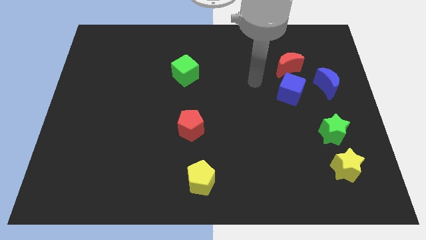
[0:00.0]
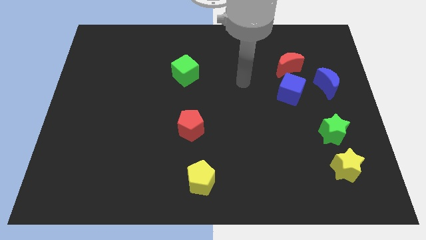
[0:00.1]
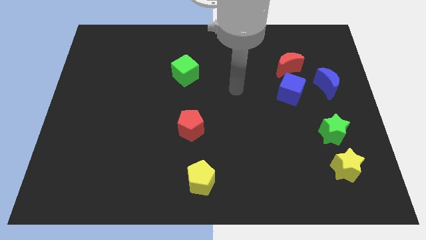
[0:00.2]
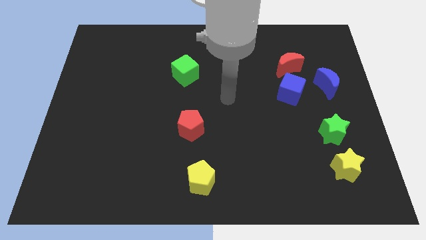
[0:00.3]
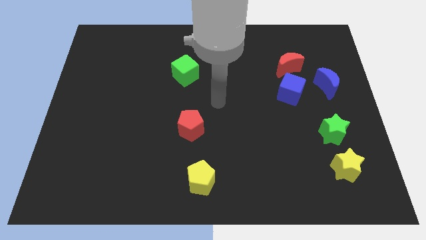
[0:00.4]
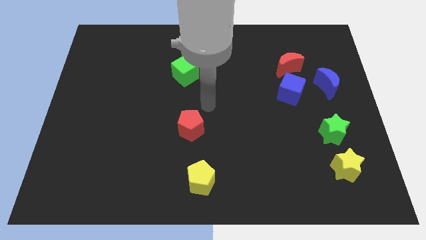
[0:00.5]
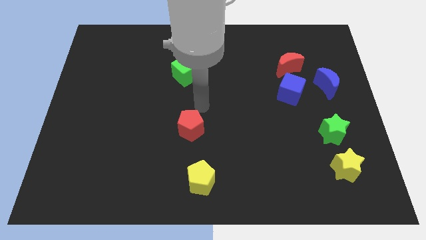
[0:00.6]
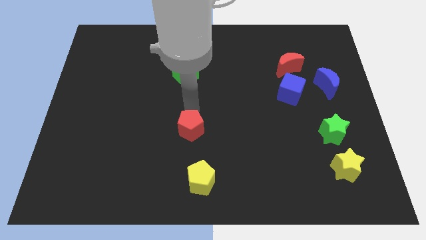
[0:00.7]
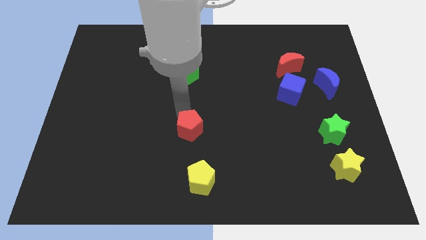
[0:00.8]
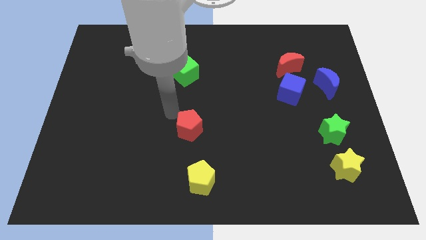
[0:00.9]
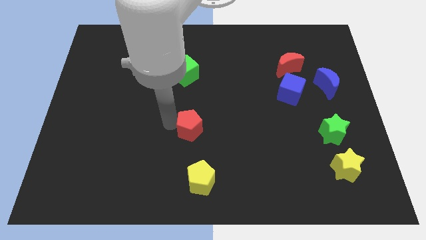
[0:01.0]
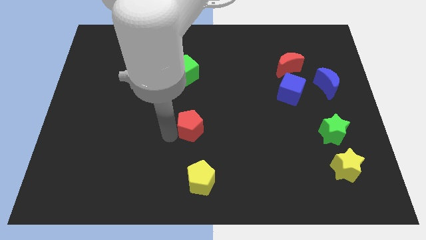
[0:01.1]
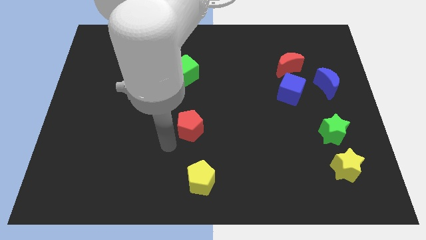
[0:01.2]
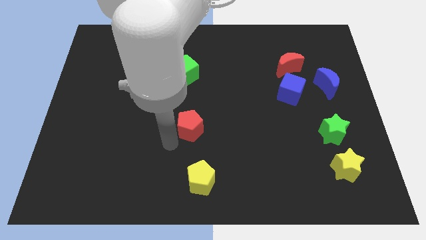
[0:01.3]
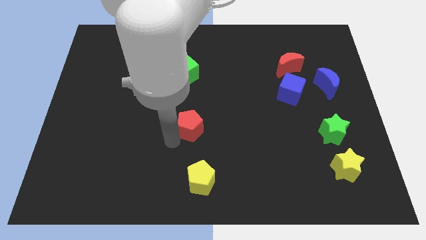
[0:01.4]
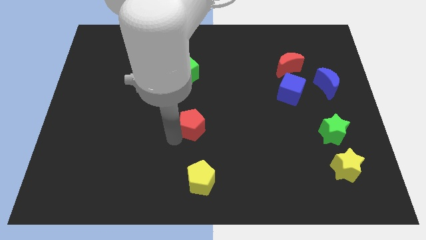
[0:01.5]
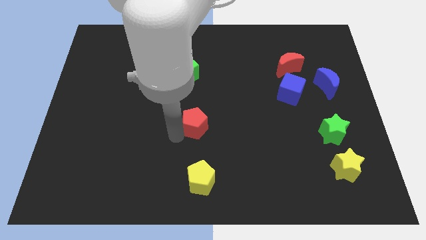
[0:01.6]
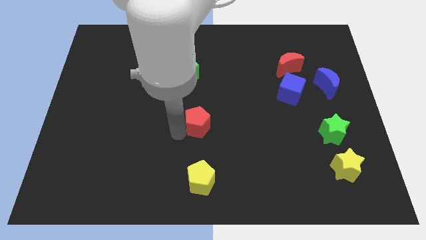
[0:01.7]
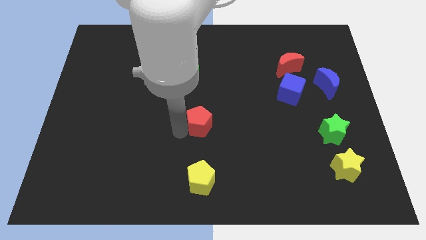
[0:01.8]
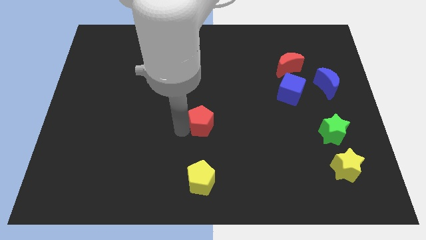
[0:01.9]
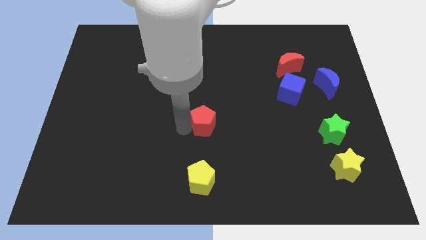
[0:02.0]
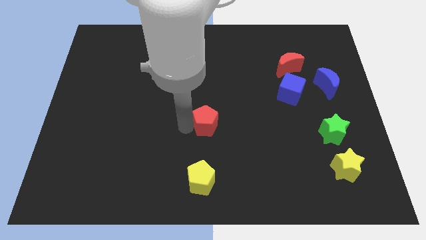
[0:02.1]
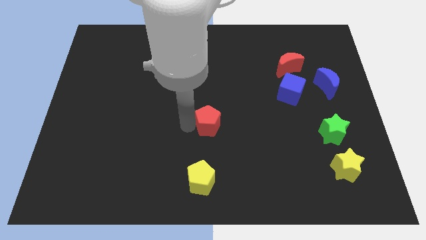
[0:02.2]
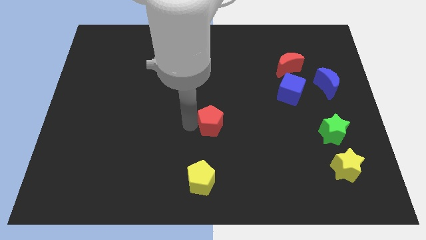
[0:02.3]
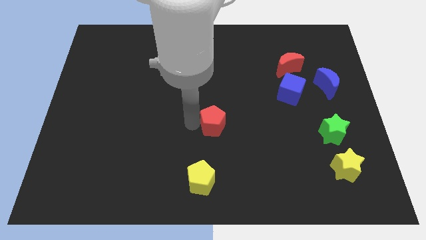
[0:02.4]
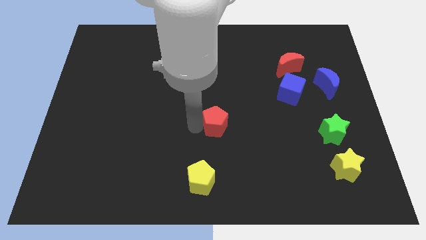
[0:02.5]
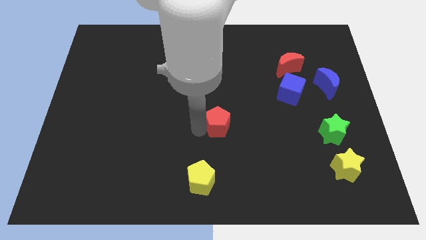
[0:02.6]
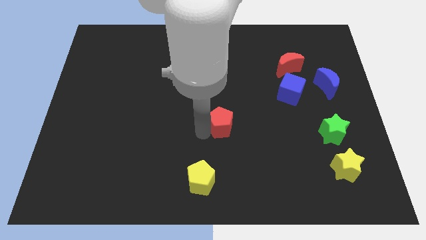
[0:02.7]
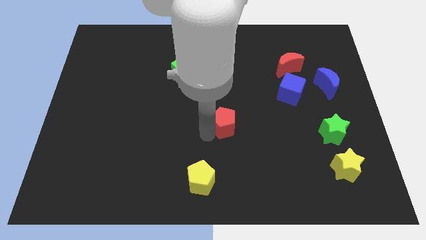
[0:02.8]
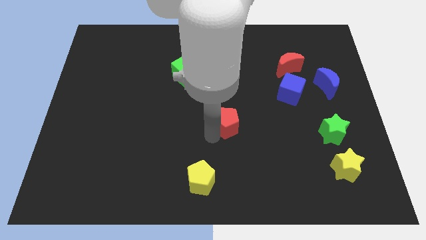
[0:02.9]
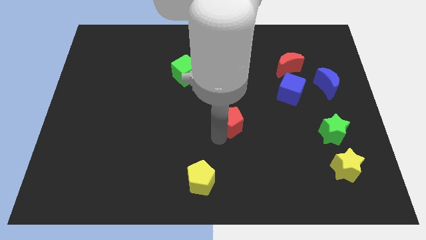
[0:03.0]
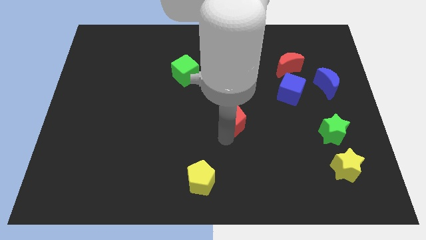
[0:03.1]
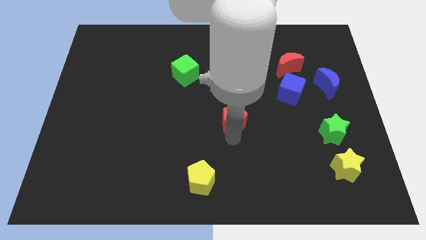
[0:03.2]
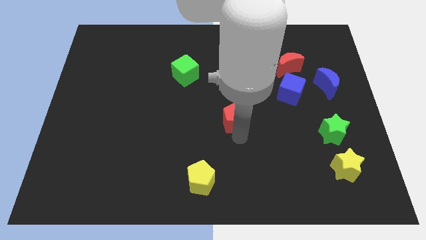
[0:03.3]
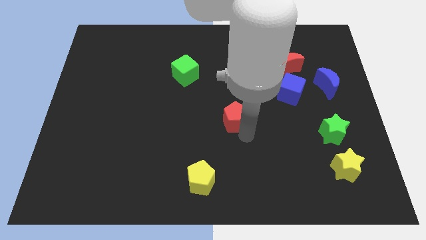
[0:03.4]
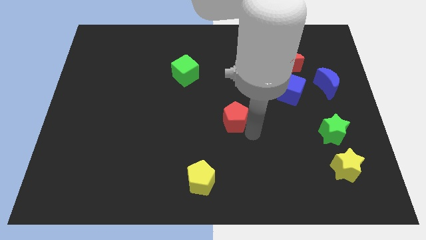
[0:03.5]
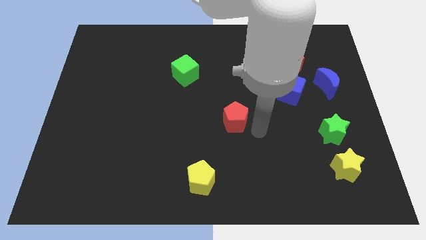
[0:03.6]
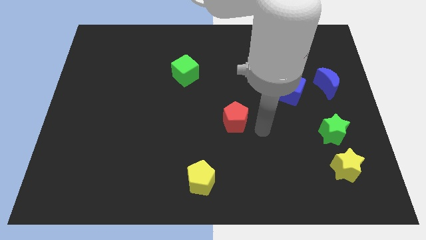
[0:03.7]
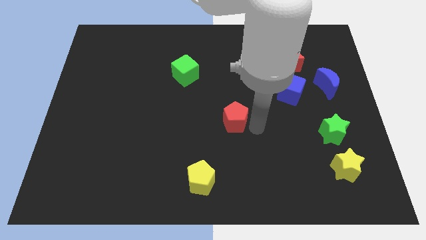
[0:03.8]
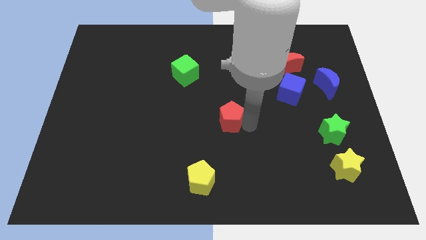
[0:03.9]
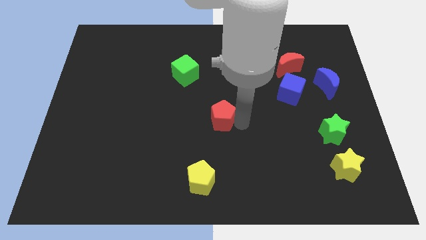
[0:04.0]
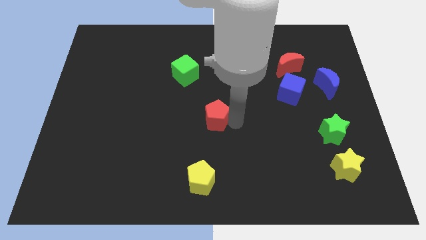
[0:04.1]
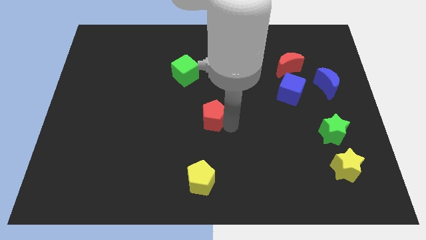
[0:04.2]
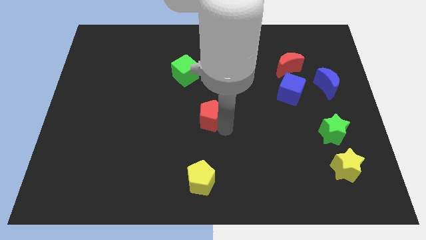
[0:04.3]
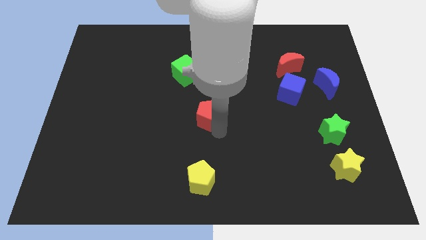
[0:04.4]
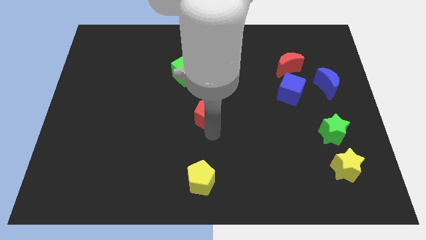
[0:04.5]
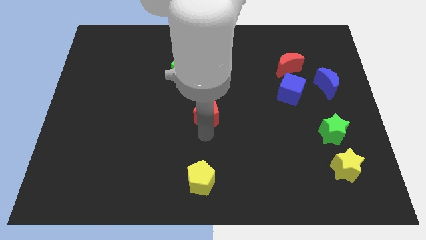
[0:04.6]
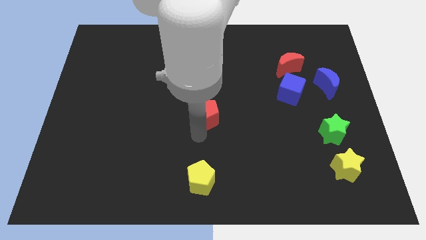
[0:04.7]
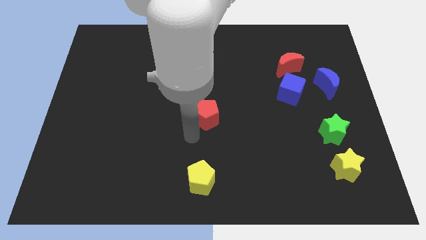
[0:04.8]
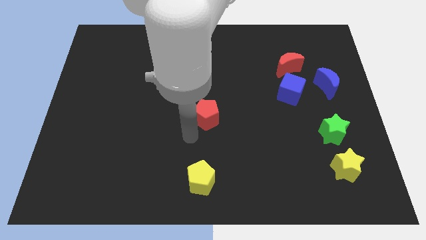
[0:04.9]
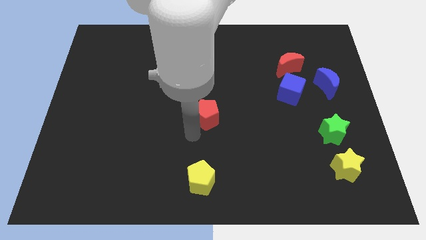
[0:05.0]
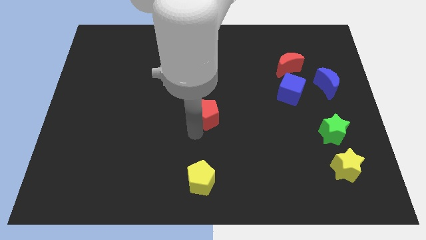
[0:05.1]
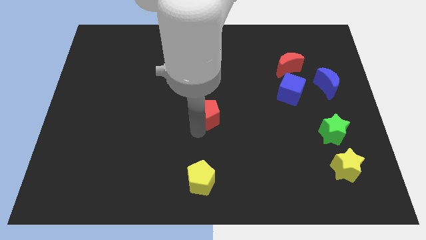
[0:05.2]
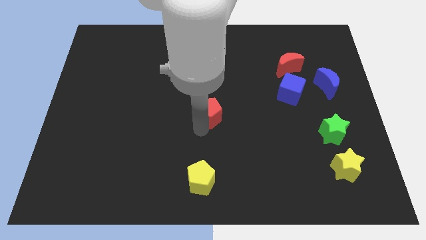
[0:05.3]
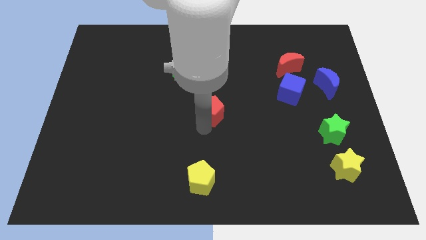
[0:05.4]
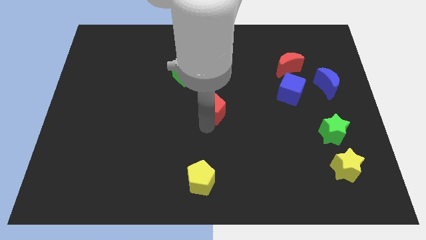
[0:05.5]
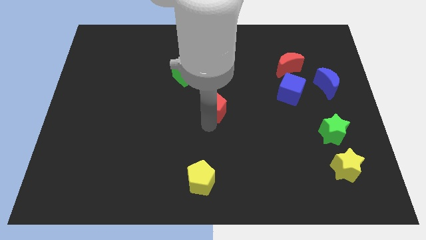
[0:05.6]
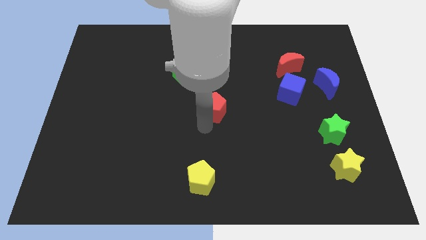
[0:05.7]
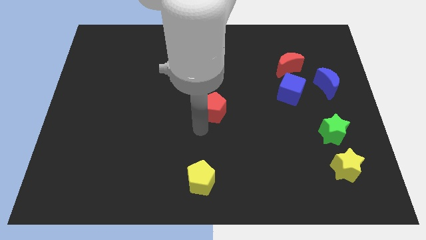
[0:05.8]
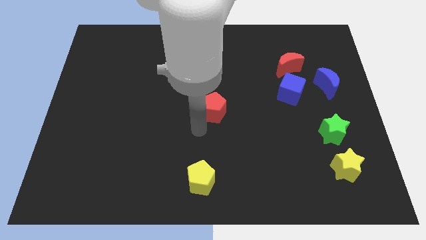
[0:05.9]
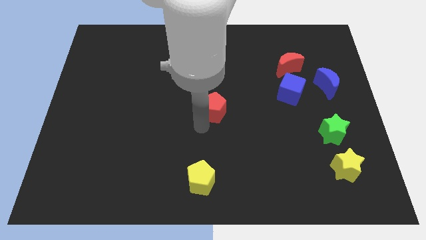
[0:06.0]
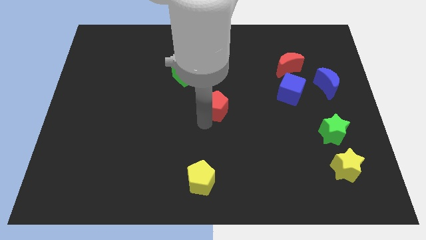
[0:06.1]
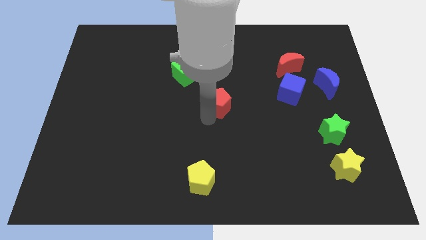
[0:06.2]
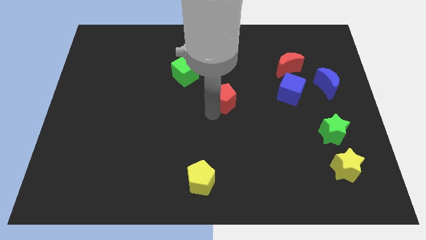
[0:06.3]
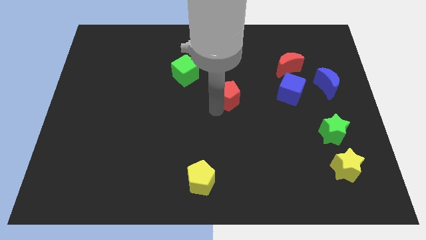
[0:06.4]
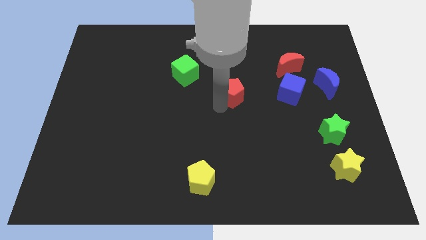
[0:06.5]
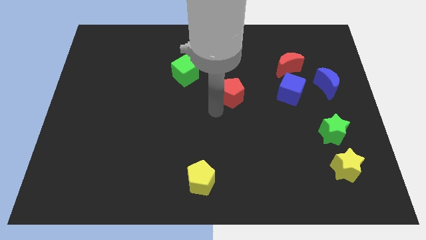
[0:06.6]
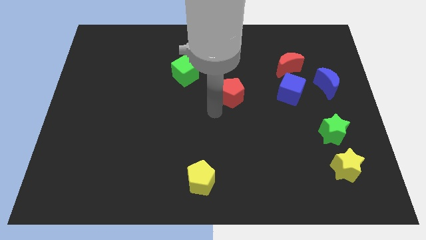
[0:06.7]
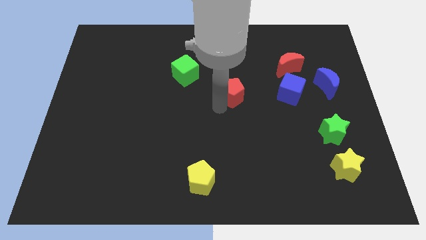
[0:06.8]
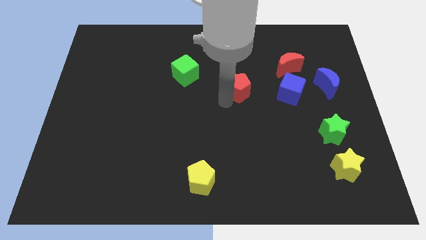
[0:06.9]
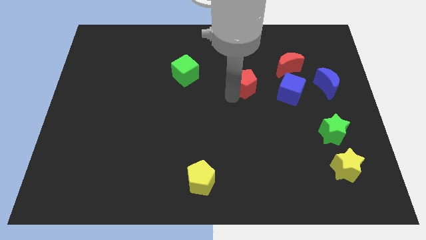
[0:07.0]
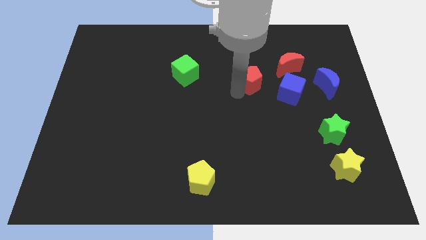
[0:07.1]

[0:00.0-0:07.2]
push the red pentagon up and to the right diagonally

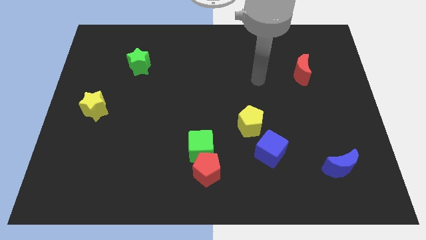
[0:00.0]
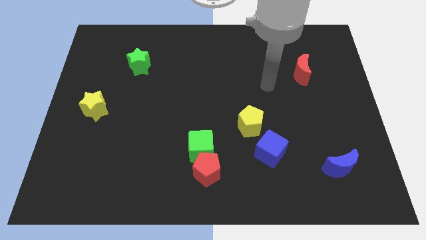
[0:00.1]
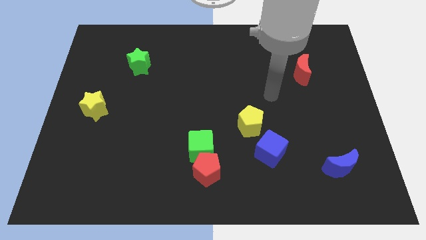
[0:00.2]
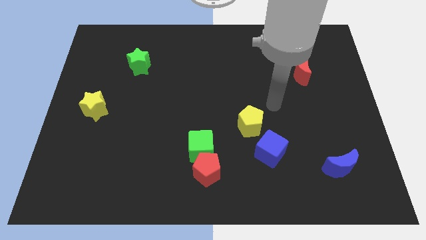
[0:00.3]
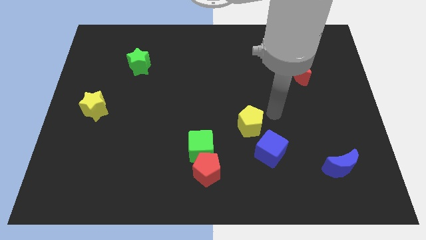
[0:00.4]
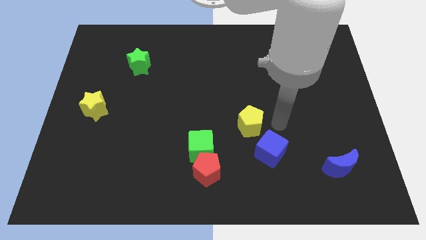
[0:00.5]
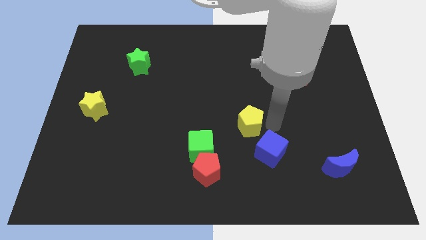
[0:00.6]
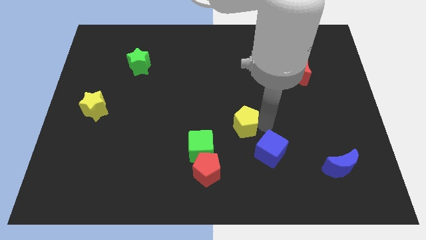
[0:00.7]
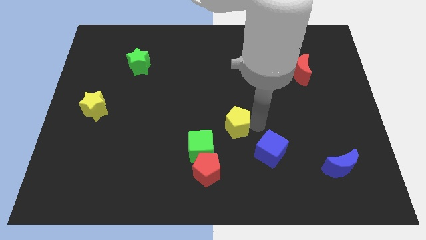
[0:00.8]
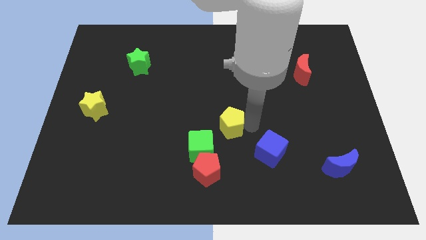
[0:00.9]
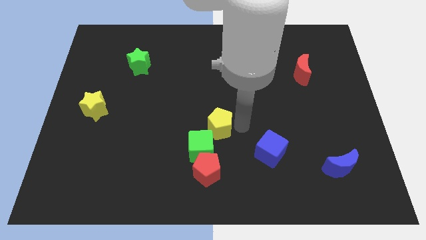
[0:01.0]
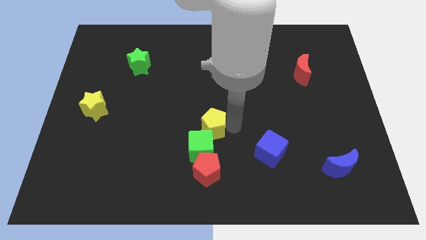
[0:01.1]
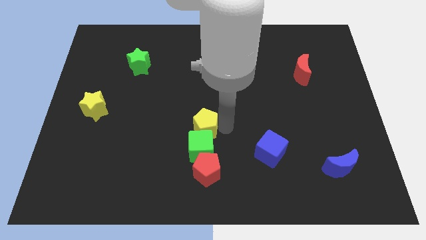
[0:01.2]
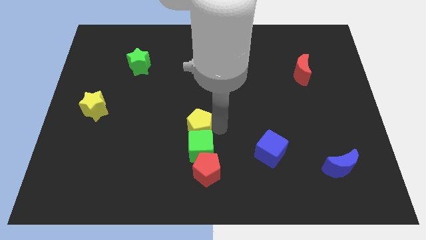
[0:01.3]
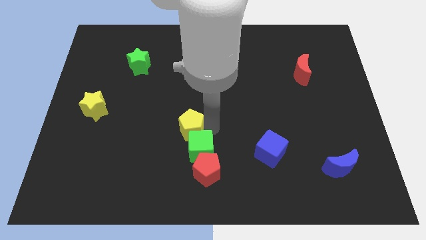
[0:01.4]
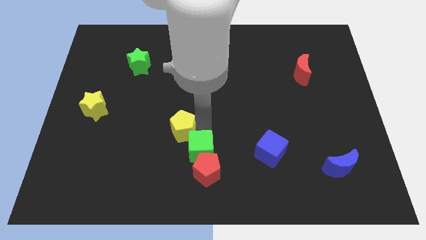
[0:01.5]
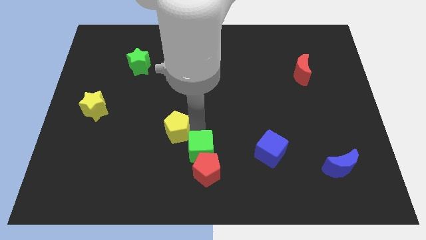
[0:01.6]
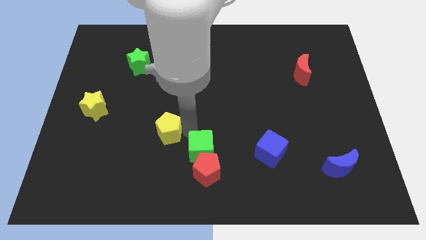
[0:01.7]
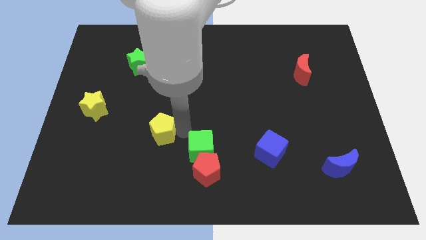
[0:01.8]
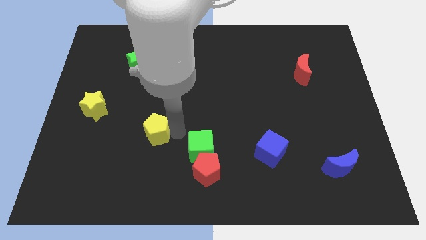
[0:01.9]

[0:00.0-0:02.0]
push the yellow pentagon to the left
